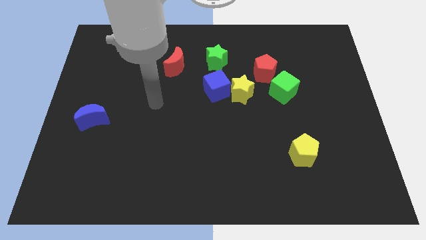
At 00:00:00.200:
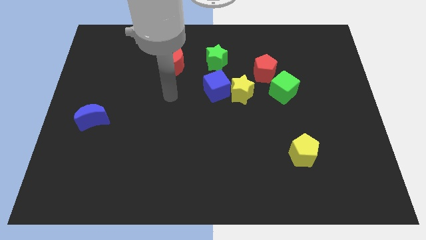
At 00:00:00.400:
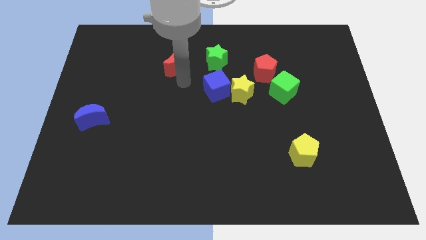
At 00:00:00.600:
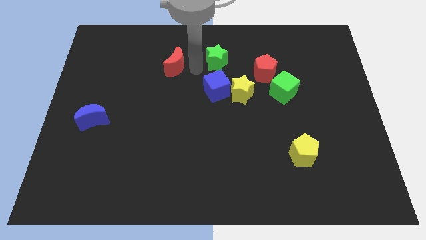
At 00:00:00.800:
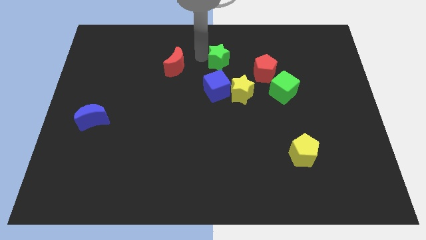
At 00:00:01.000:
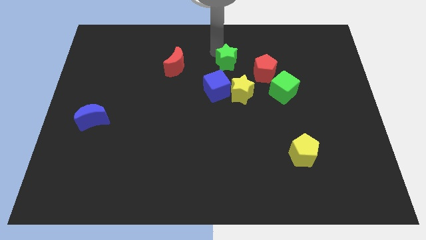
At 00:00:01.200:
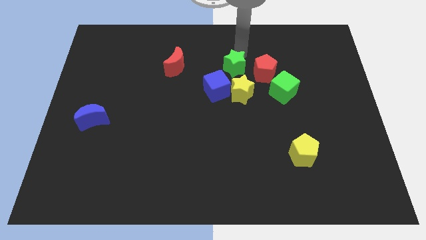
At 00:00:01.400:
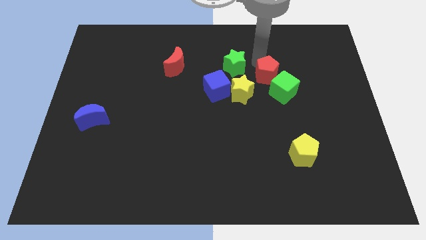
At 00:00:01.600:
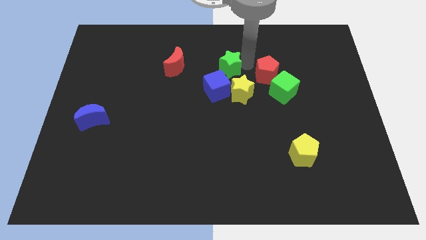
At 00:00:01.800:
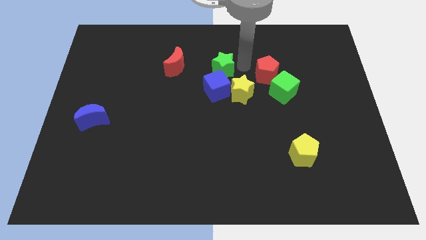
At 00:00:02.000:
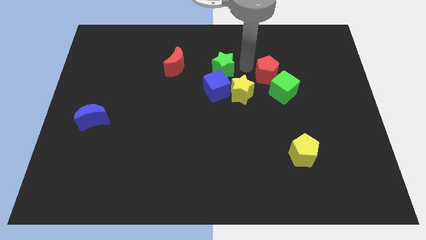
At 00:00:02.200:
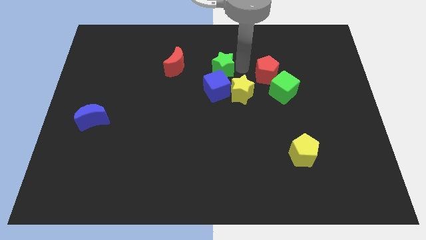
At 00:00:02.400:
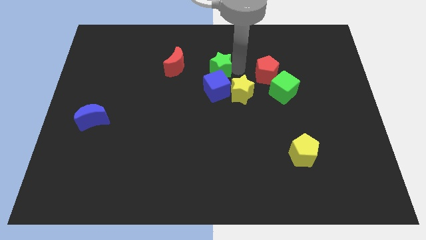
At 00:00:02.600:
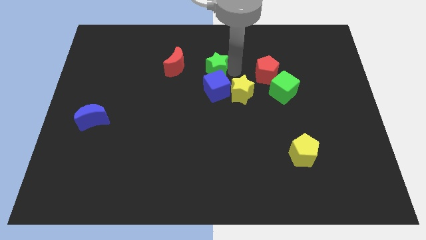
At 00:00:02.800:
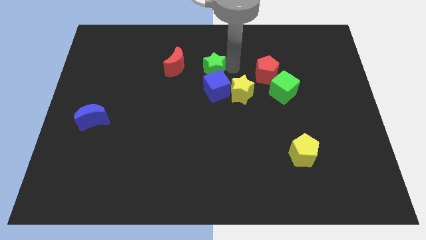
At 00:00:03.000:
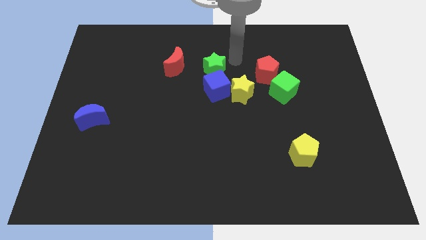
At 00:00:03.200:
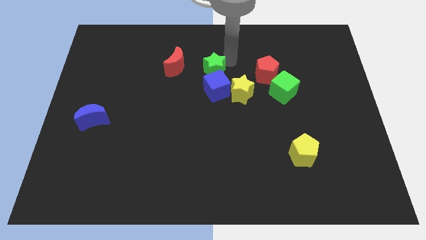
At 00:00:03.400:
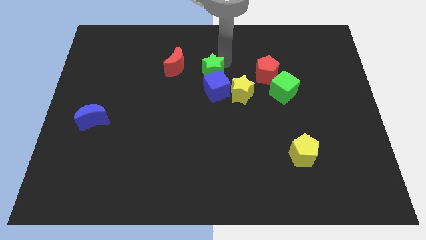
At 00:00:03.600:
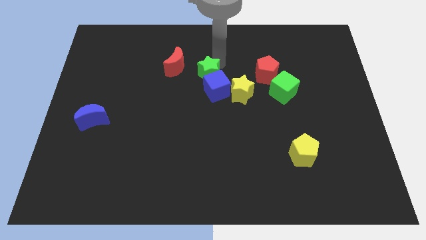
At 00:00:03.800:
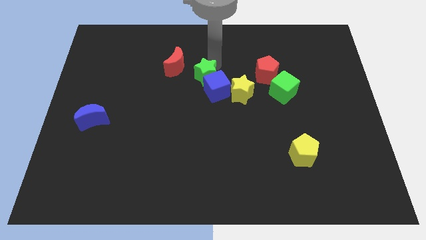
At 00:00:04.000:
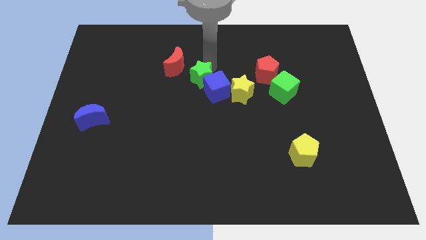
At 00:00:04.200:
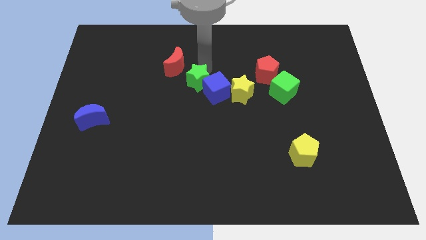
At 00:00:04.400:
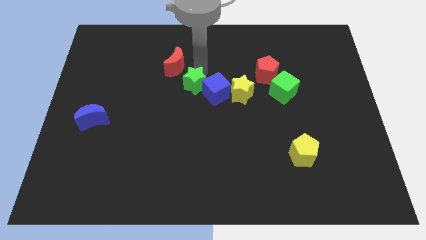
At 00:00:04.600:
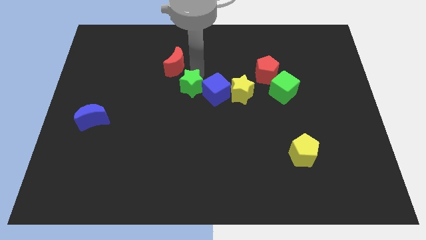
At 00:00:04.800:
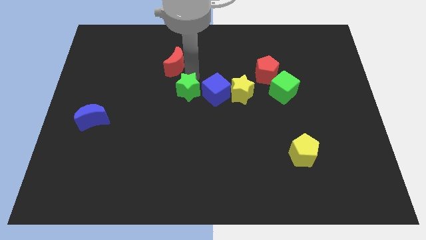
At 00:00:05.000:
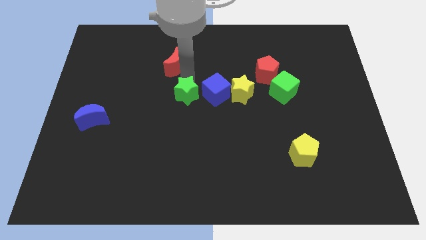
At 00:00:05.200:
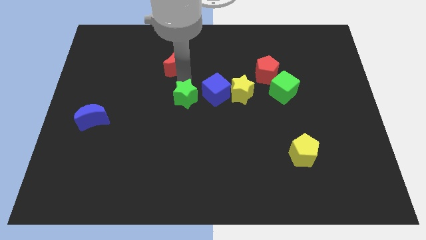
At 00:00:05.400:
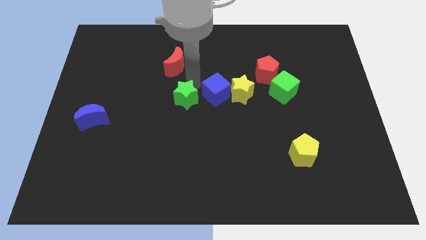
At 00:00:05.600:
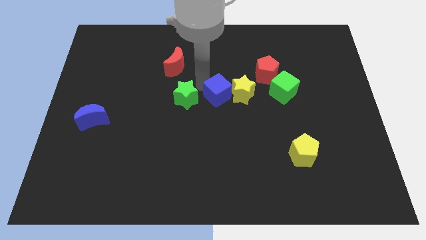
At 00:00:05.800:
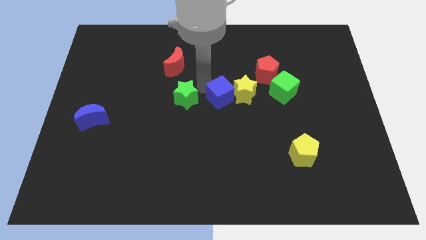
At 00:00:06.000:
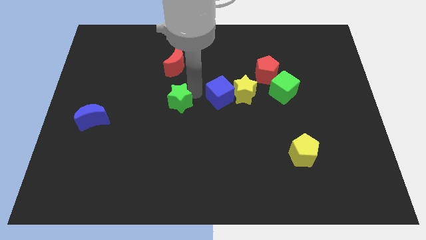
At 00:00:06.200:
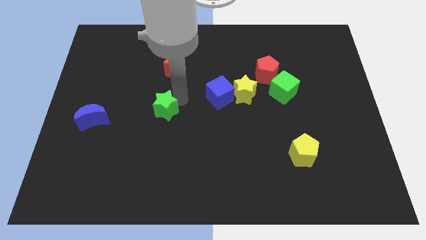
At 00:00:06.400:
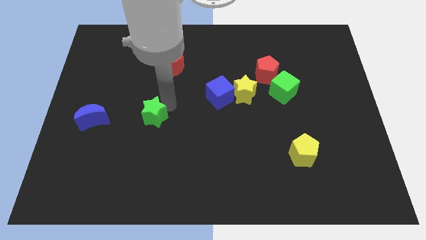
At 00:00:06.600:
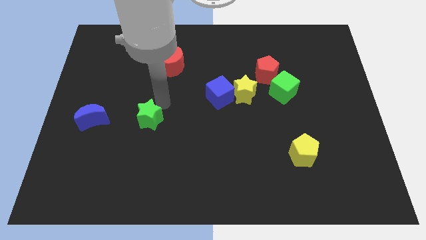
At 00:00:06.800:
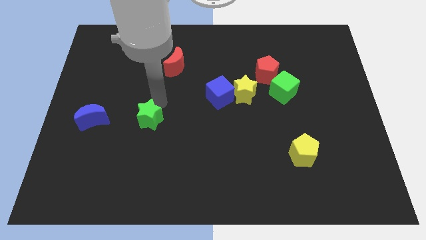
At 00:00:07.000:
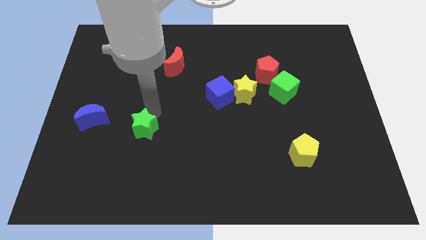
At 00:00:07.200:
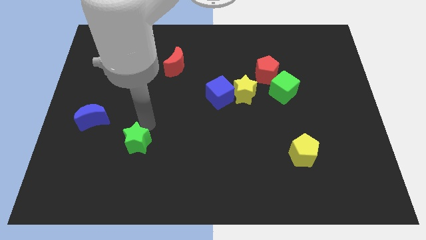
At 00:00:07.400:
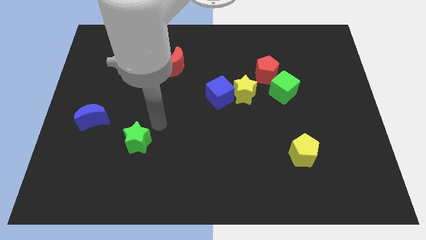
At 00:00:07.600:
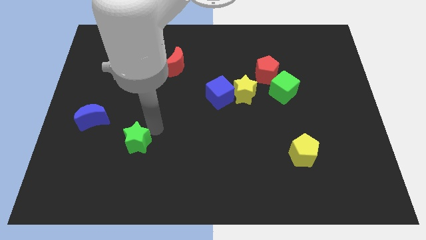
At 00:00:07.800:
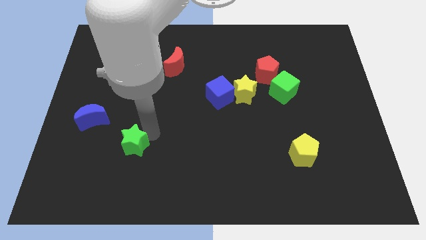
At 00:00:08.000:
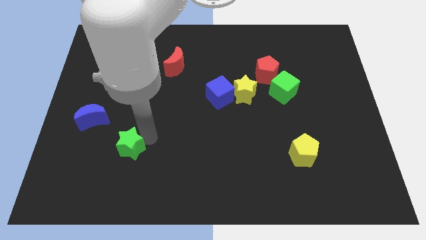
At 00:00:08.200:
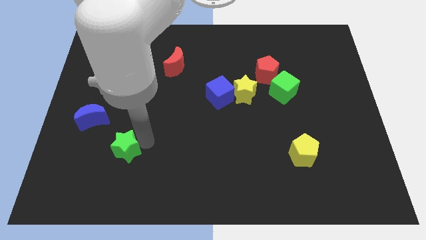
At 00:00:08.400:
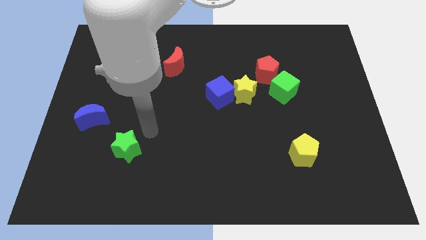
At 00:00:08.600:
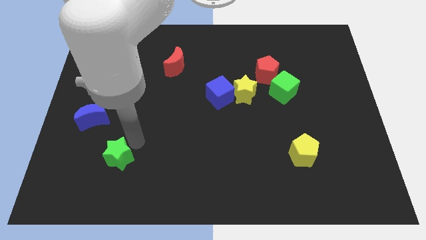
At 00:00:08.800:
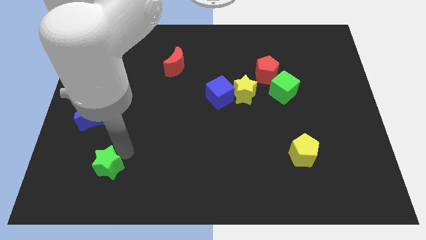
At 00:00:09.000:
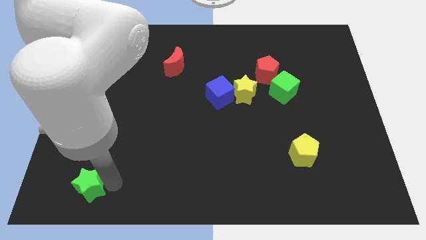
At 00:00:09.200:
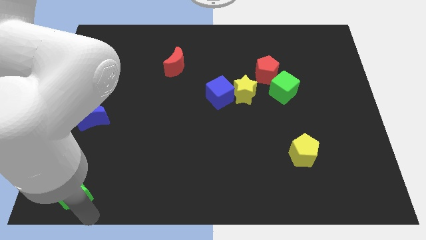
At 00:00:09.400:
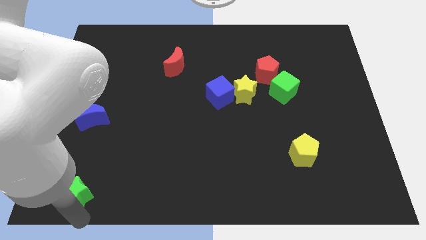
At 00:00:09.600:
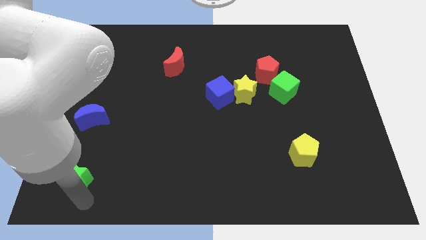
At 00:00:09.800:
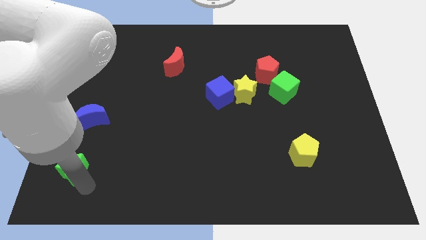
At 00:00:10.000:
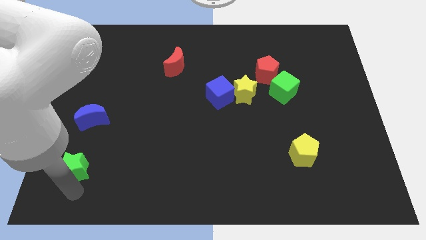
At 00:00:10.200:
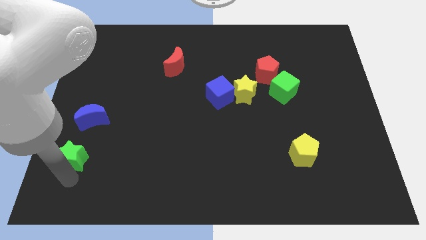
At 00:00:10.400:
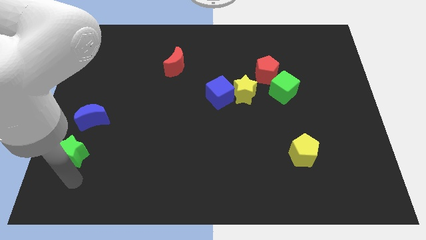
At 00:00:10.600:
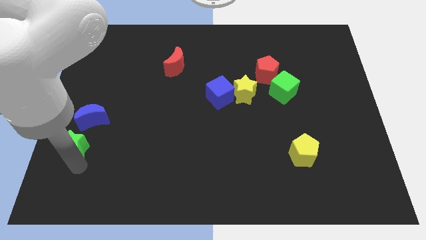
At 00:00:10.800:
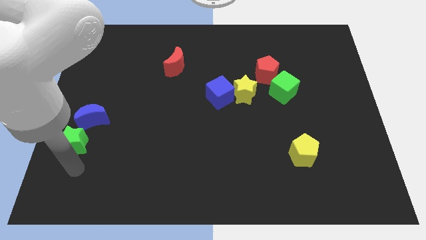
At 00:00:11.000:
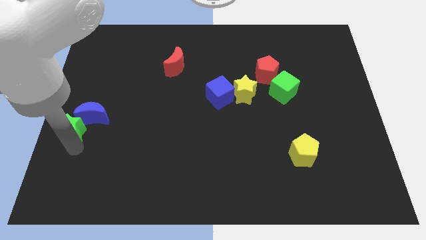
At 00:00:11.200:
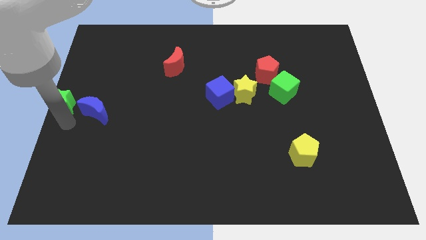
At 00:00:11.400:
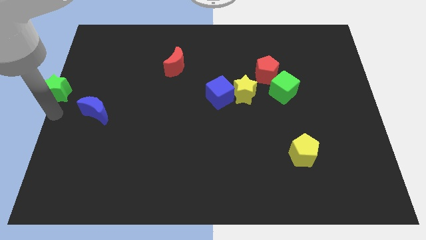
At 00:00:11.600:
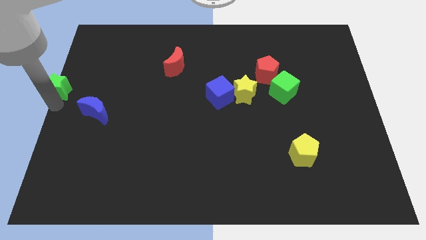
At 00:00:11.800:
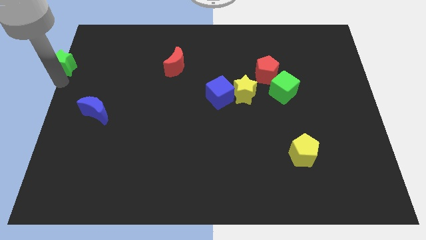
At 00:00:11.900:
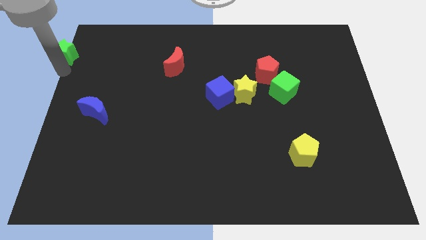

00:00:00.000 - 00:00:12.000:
slide the green star to the top left corner

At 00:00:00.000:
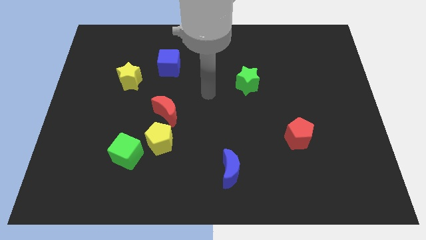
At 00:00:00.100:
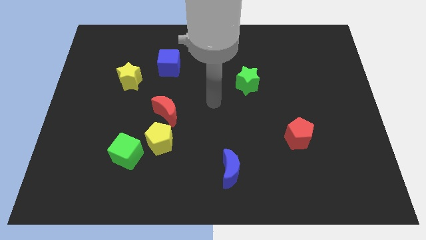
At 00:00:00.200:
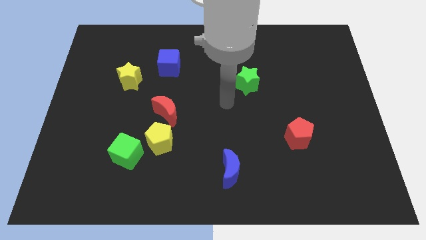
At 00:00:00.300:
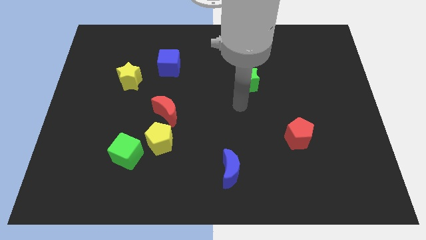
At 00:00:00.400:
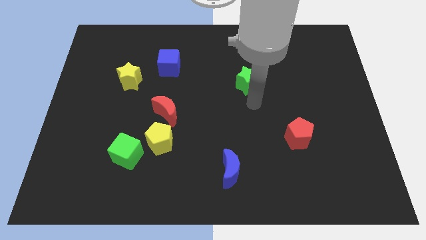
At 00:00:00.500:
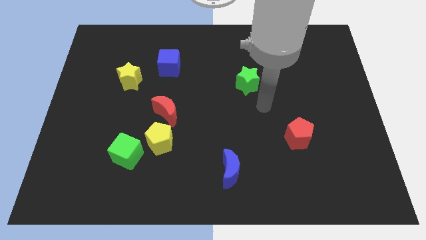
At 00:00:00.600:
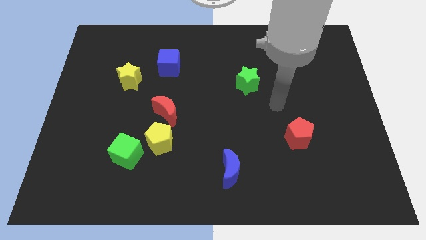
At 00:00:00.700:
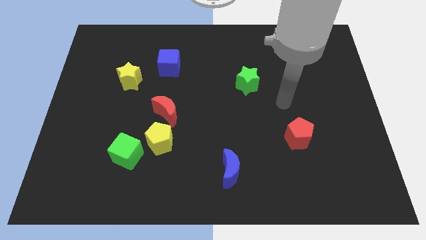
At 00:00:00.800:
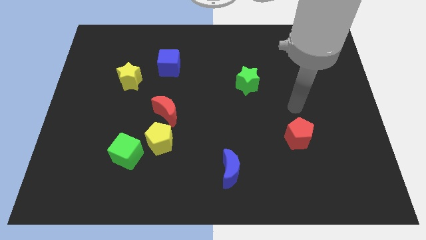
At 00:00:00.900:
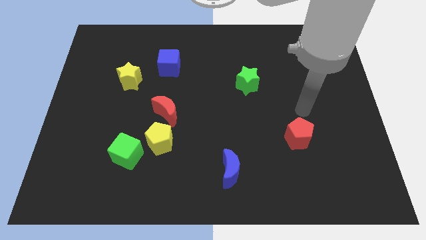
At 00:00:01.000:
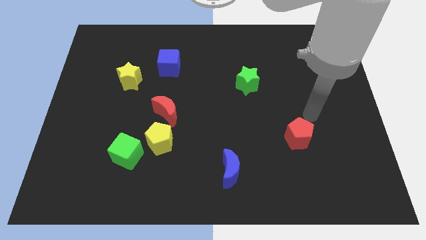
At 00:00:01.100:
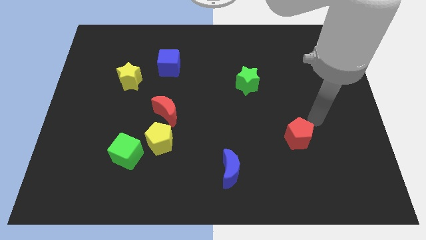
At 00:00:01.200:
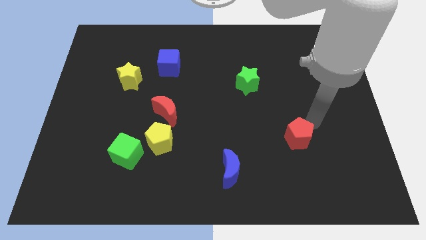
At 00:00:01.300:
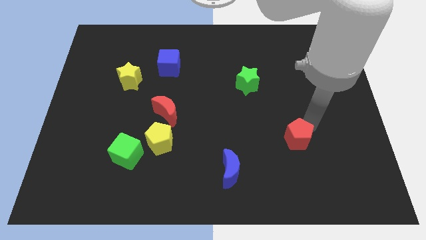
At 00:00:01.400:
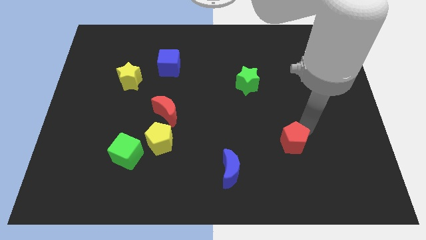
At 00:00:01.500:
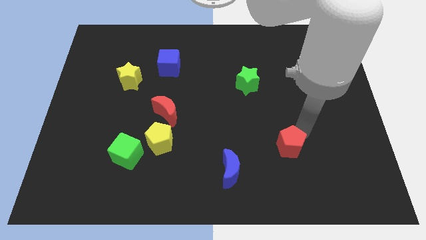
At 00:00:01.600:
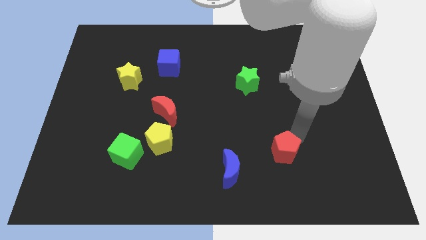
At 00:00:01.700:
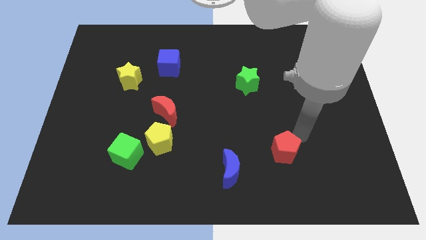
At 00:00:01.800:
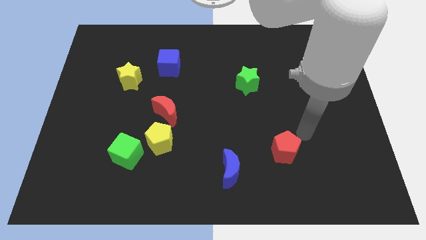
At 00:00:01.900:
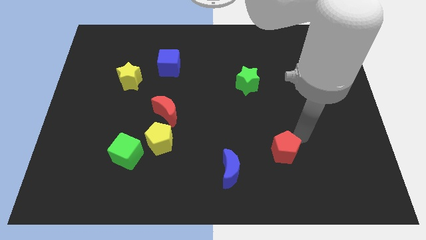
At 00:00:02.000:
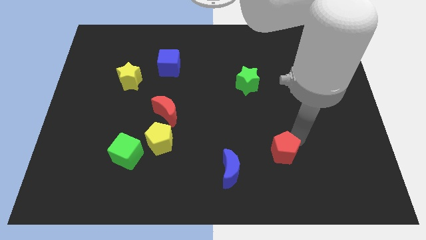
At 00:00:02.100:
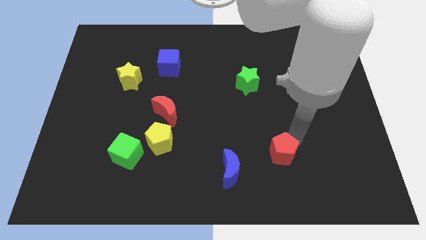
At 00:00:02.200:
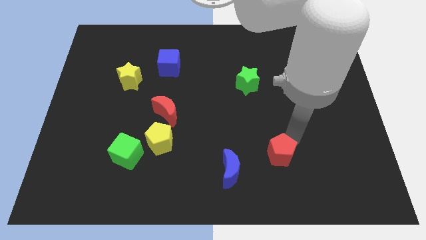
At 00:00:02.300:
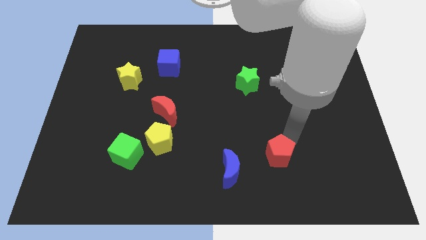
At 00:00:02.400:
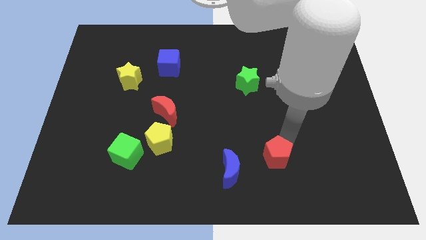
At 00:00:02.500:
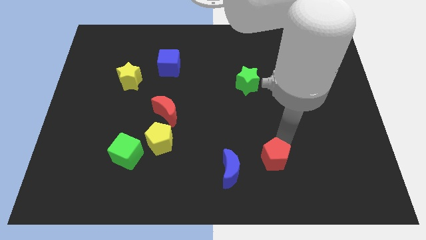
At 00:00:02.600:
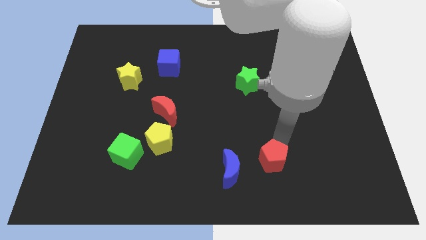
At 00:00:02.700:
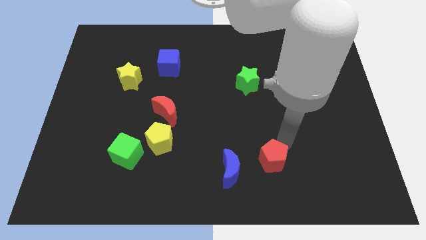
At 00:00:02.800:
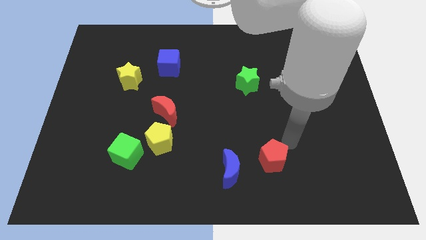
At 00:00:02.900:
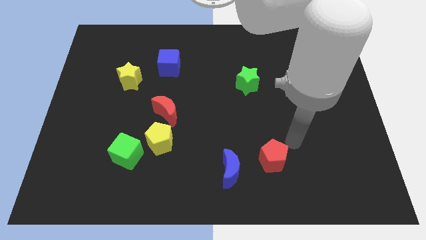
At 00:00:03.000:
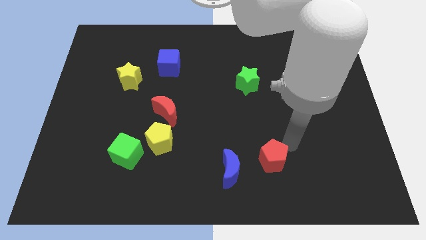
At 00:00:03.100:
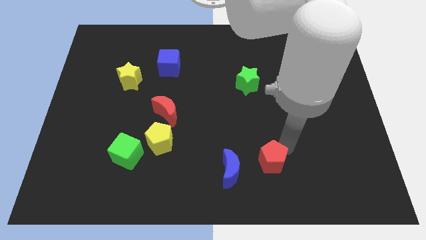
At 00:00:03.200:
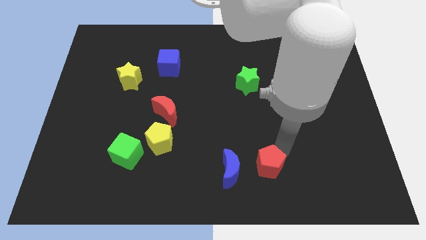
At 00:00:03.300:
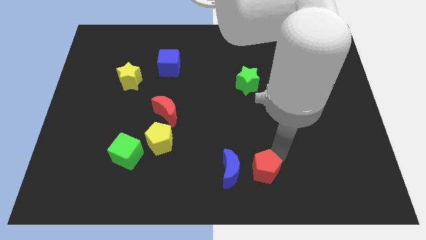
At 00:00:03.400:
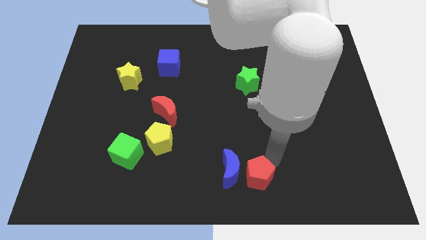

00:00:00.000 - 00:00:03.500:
push the red pentagon to the bottom side
